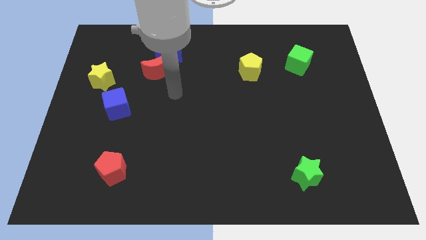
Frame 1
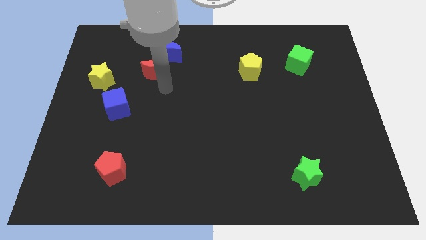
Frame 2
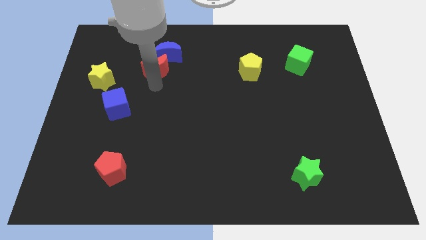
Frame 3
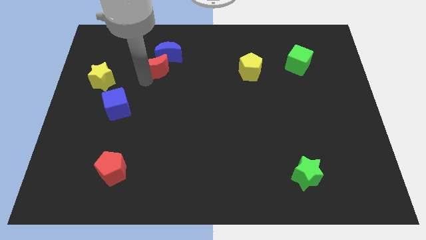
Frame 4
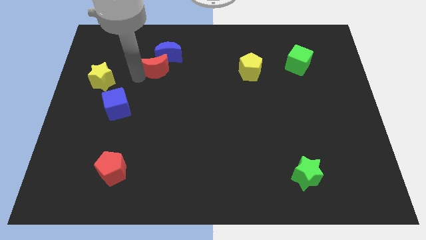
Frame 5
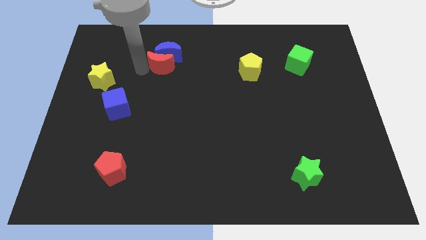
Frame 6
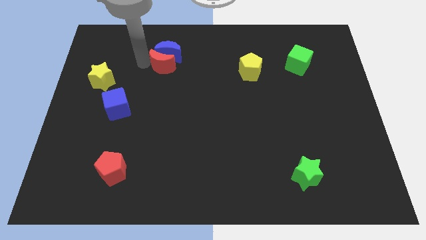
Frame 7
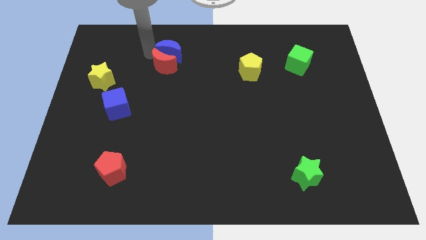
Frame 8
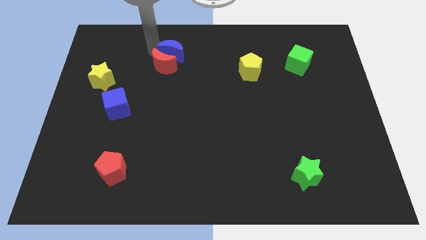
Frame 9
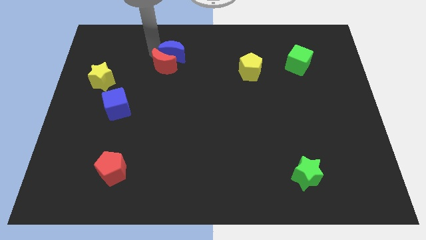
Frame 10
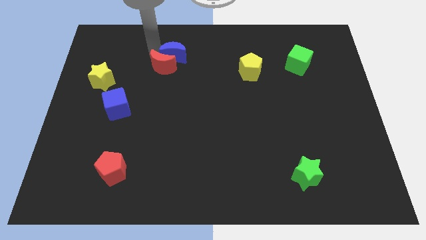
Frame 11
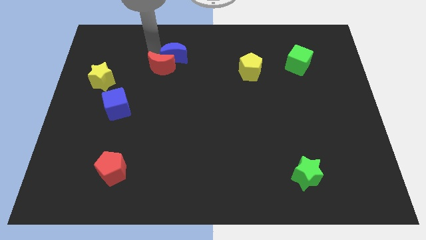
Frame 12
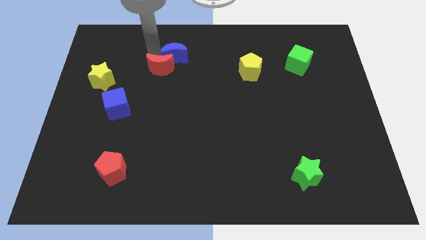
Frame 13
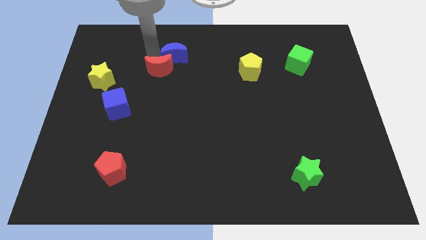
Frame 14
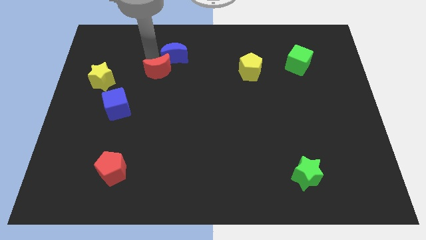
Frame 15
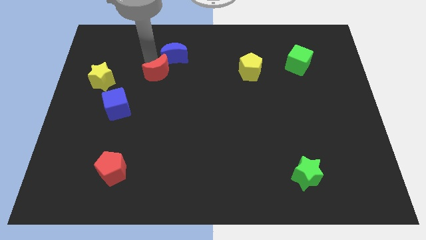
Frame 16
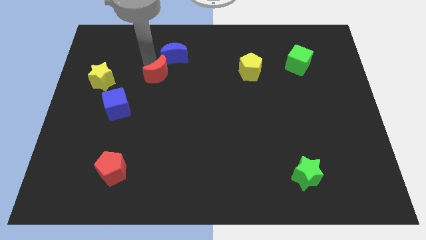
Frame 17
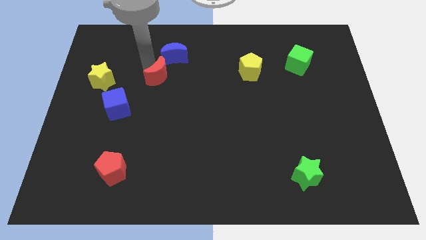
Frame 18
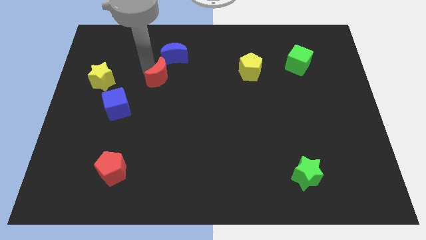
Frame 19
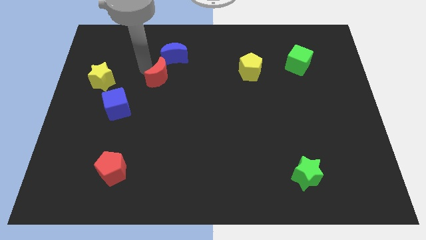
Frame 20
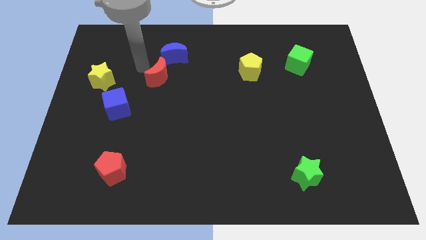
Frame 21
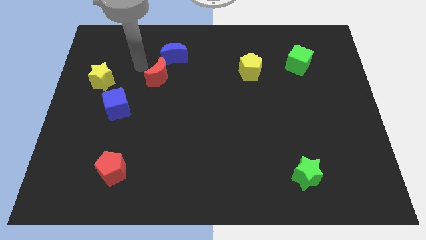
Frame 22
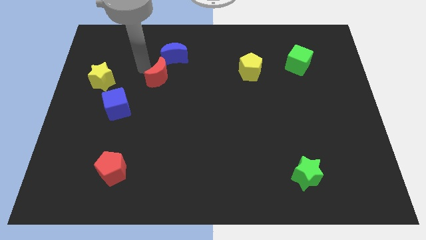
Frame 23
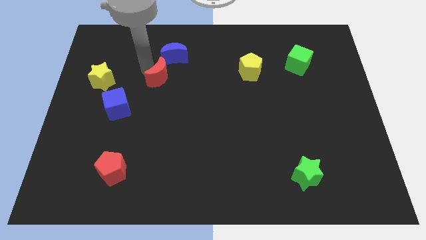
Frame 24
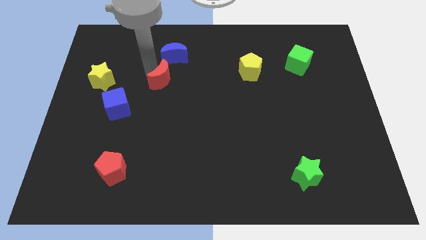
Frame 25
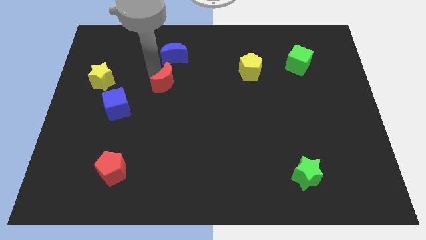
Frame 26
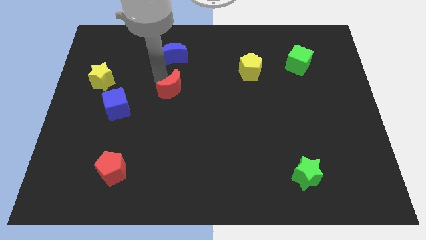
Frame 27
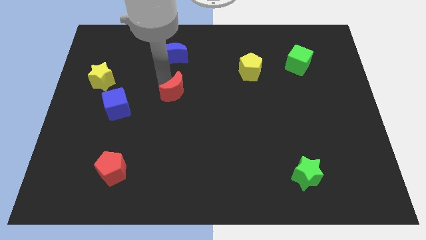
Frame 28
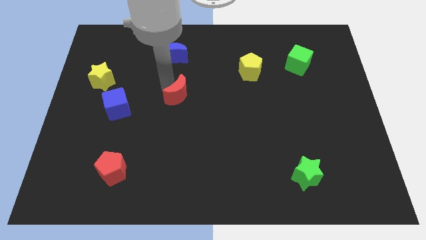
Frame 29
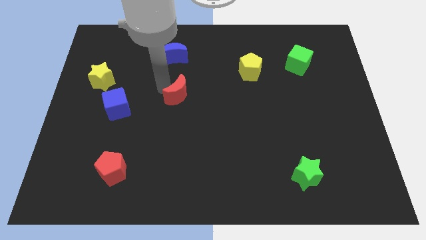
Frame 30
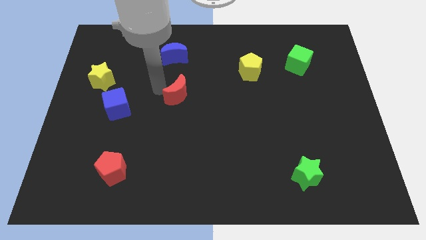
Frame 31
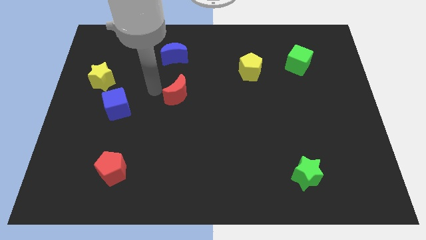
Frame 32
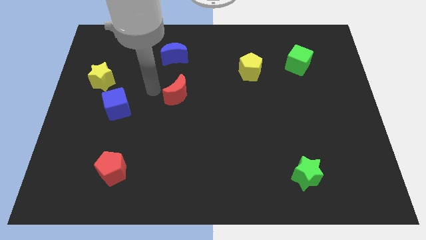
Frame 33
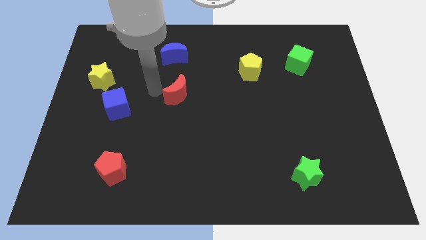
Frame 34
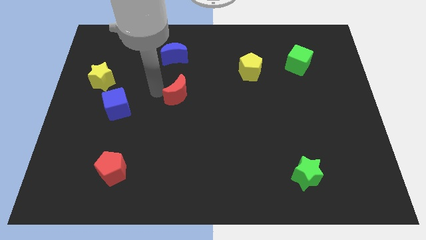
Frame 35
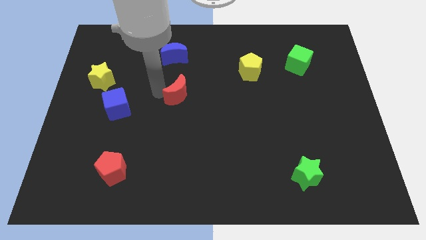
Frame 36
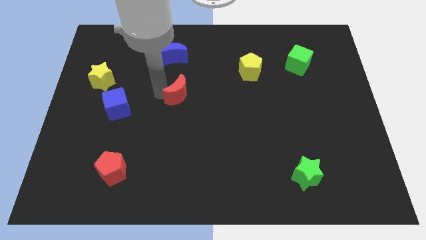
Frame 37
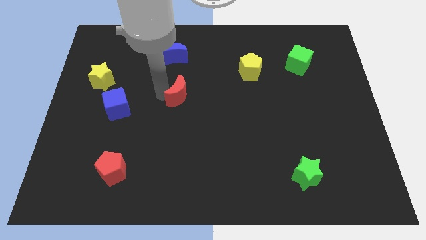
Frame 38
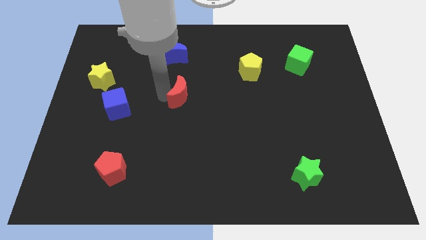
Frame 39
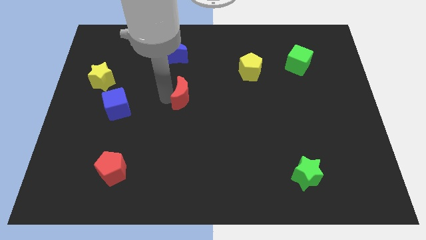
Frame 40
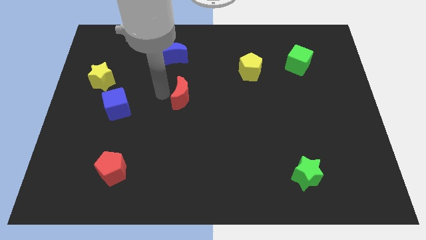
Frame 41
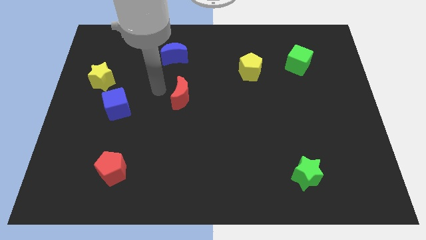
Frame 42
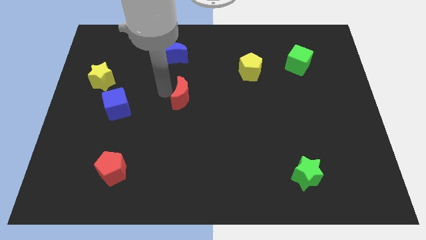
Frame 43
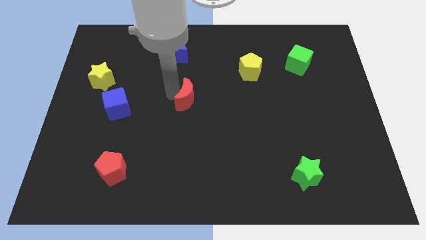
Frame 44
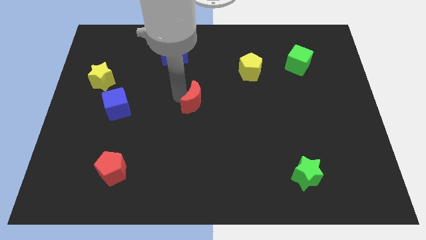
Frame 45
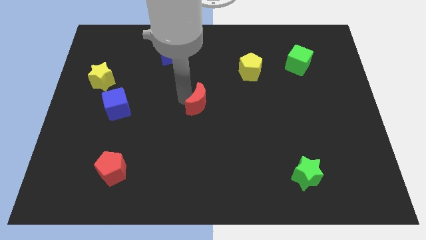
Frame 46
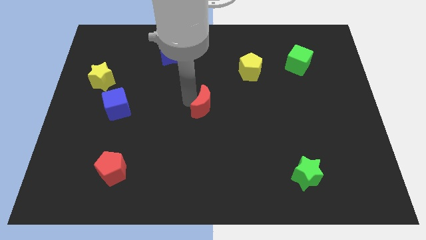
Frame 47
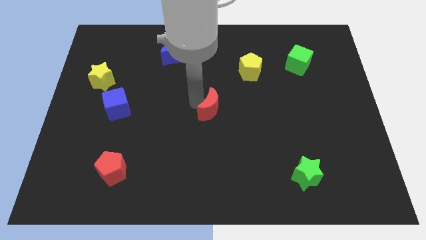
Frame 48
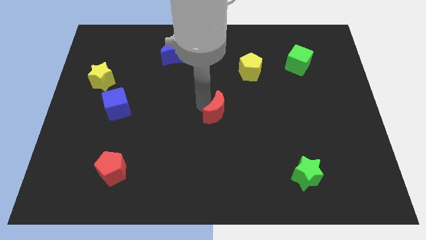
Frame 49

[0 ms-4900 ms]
slide the red moon diagonally downwards and to the right

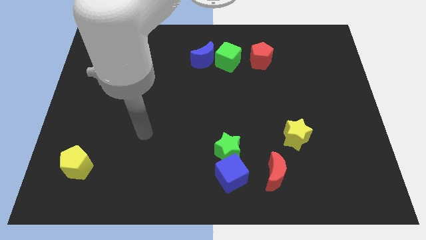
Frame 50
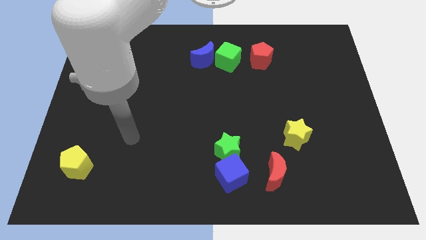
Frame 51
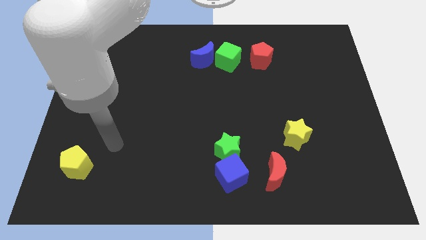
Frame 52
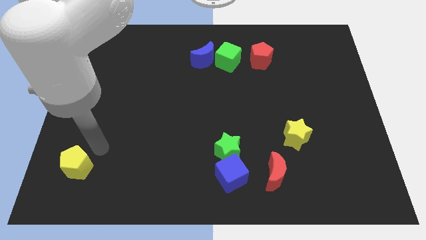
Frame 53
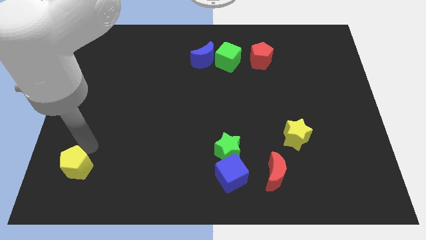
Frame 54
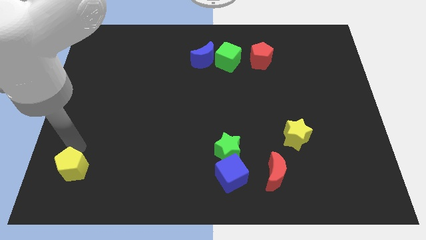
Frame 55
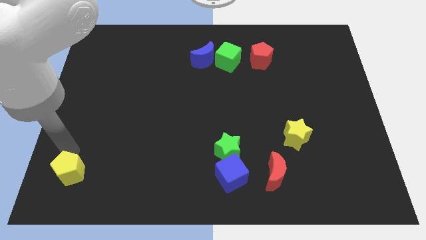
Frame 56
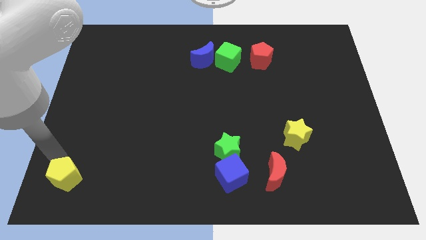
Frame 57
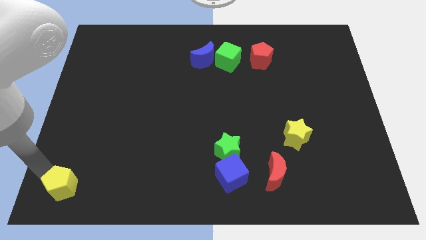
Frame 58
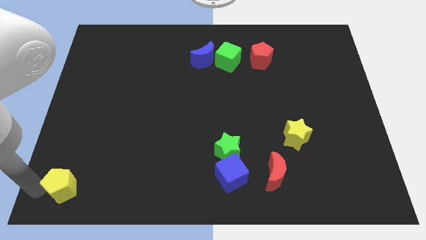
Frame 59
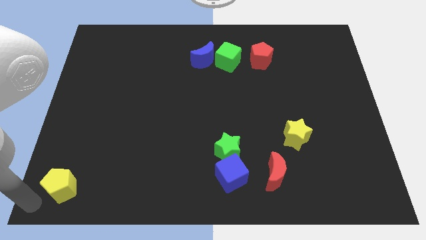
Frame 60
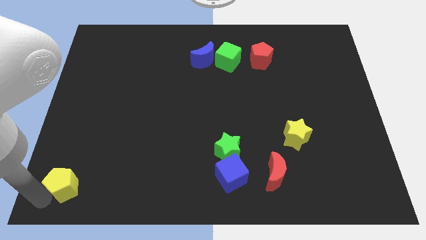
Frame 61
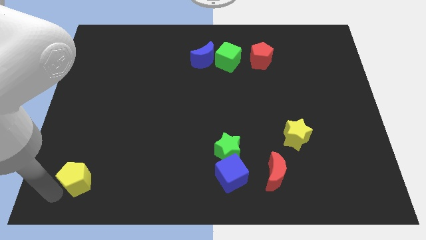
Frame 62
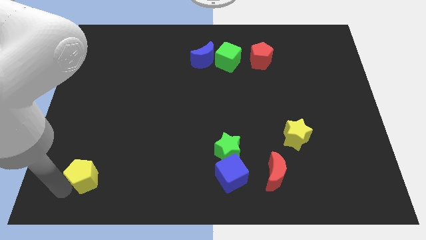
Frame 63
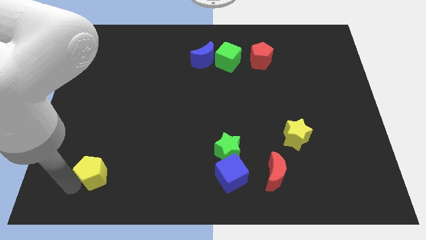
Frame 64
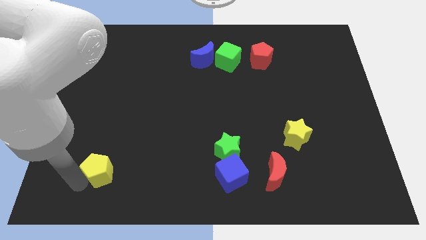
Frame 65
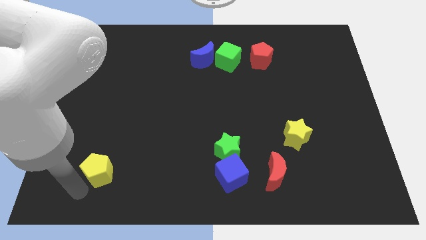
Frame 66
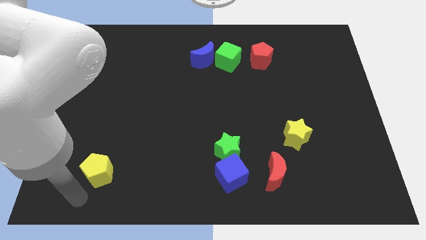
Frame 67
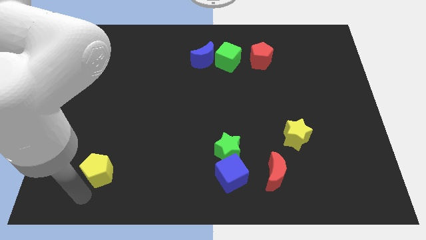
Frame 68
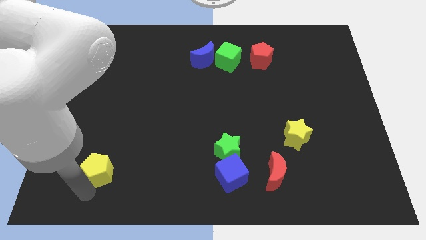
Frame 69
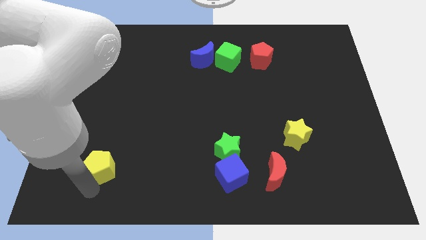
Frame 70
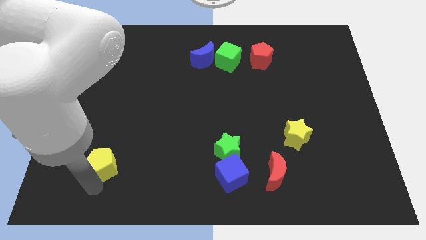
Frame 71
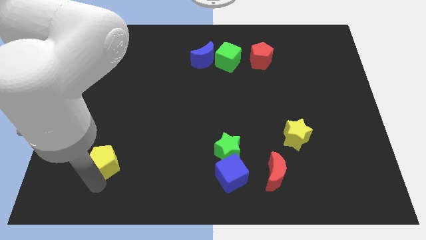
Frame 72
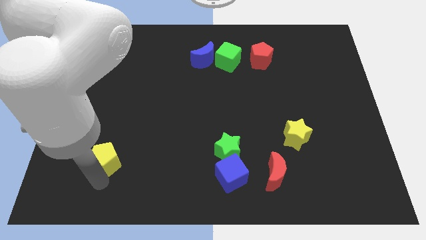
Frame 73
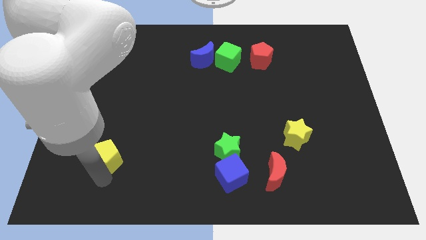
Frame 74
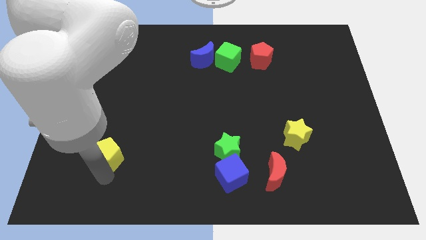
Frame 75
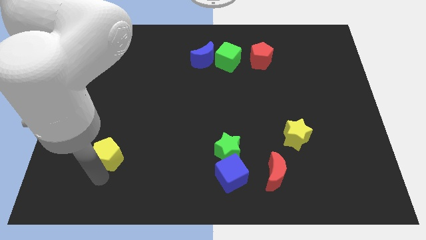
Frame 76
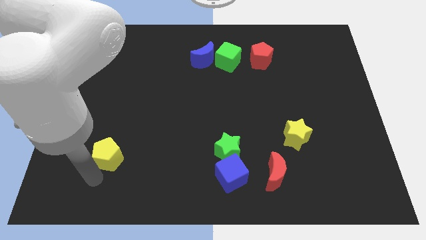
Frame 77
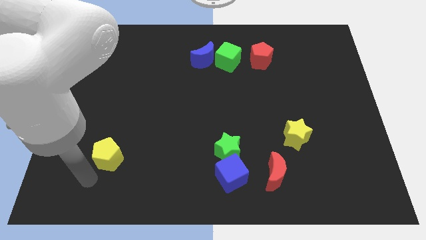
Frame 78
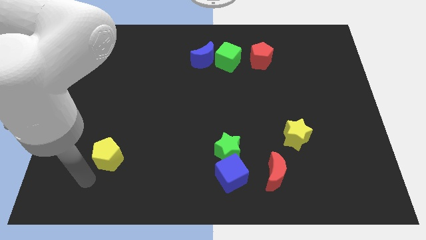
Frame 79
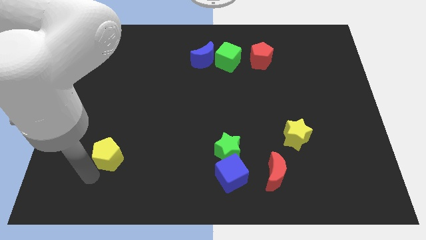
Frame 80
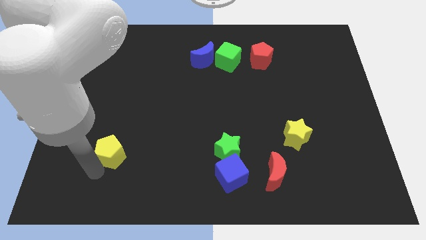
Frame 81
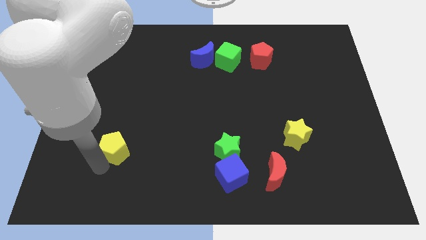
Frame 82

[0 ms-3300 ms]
push the yellow pentagon slightly upwards and right diagonally

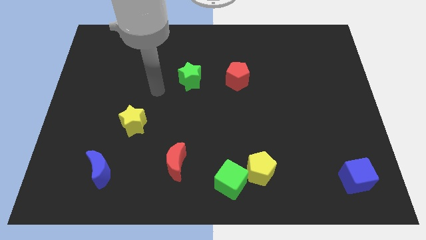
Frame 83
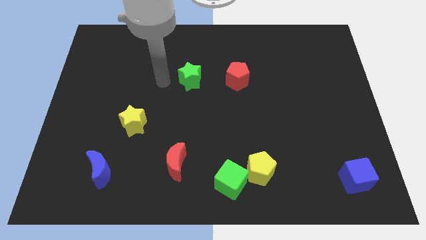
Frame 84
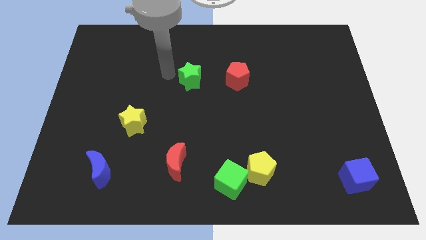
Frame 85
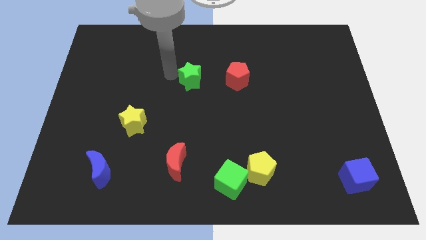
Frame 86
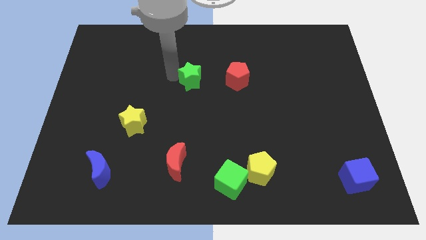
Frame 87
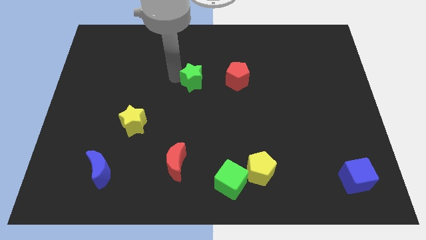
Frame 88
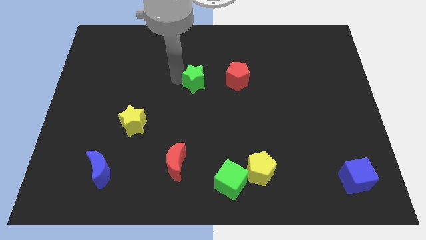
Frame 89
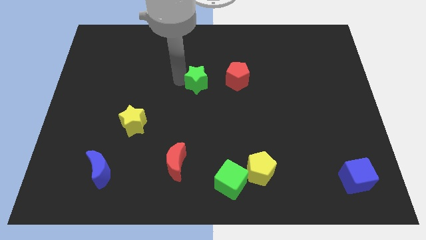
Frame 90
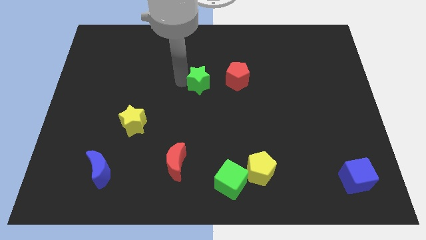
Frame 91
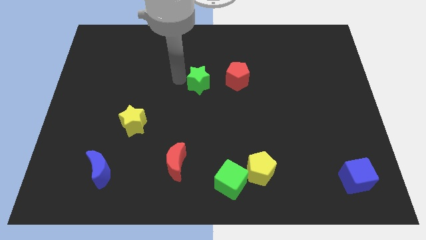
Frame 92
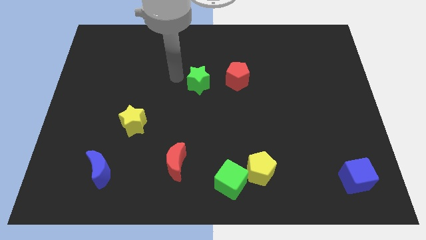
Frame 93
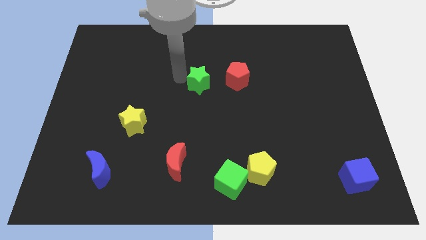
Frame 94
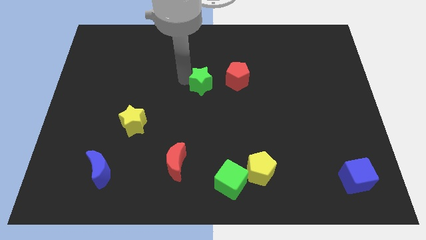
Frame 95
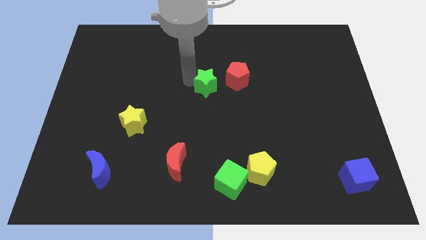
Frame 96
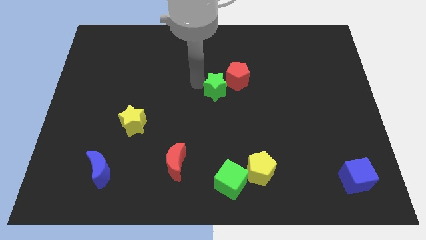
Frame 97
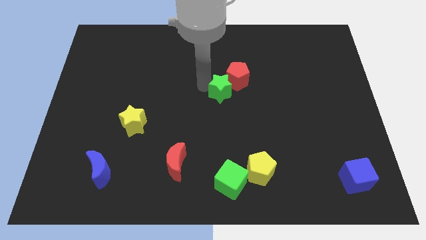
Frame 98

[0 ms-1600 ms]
slightly slide the green star to the right
